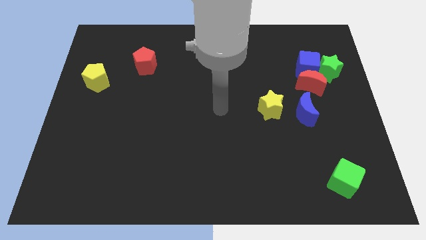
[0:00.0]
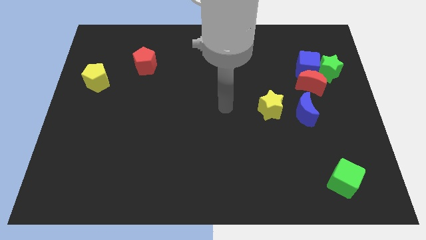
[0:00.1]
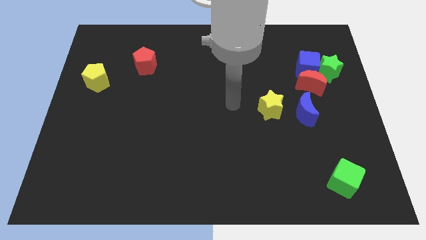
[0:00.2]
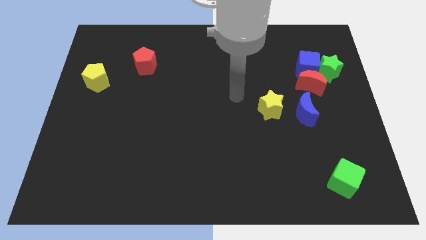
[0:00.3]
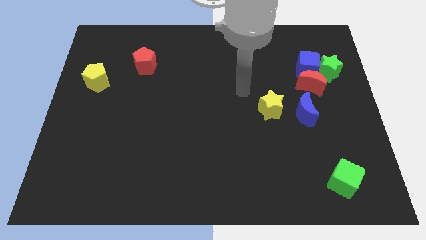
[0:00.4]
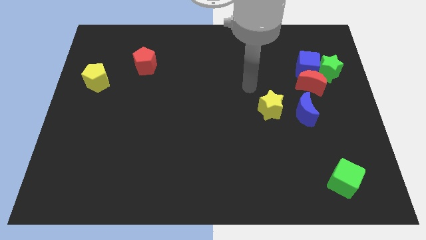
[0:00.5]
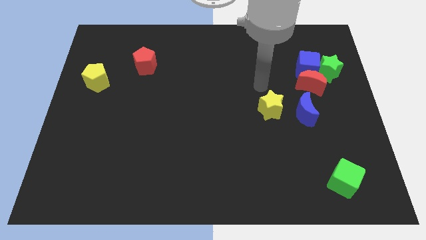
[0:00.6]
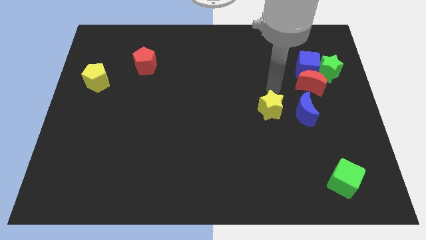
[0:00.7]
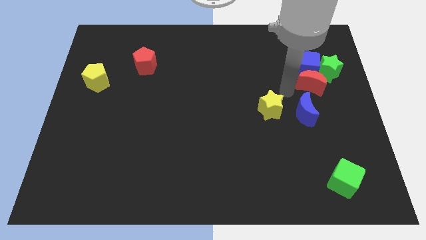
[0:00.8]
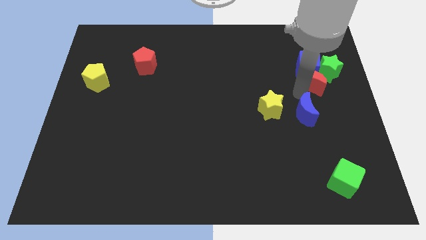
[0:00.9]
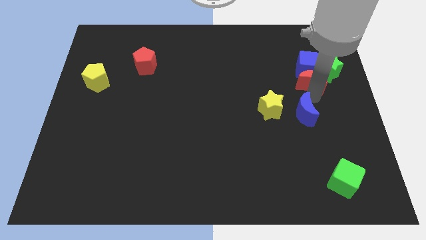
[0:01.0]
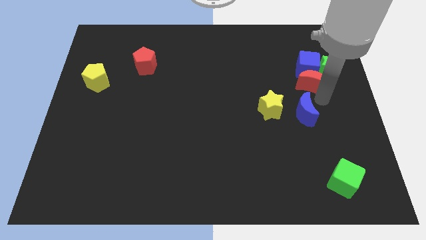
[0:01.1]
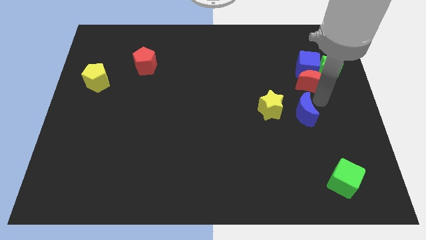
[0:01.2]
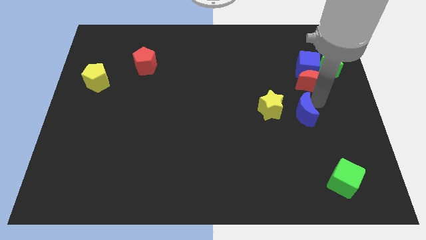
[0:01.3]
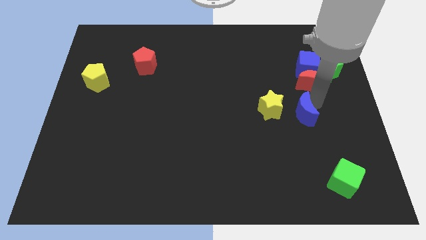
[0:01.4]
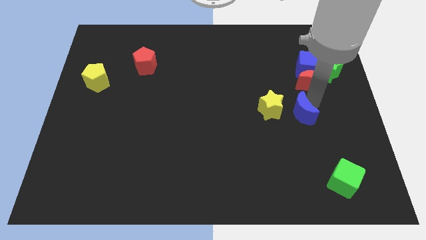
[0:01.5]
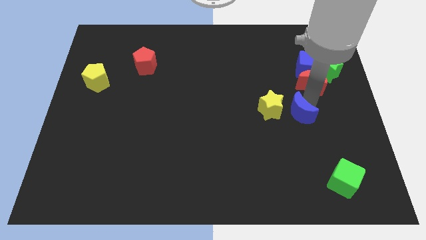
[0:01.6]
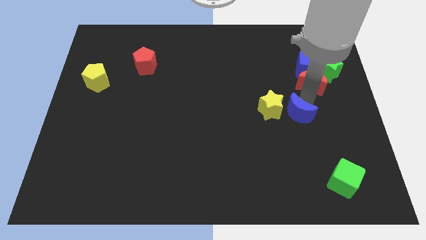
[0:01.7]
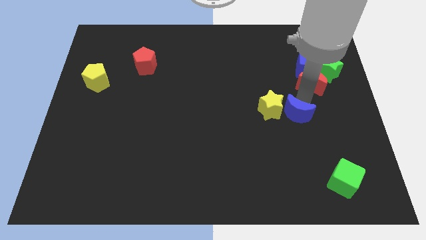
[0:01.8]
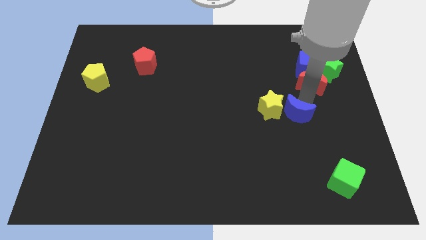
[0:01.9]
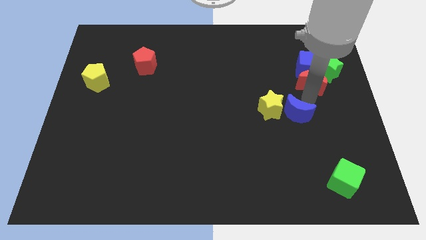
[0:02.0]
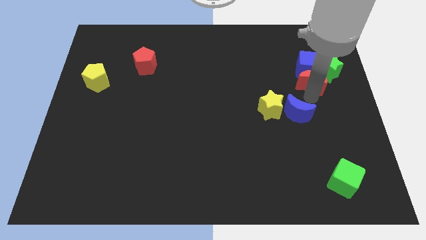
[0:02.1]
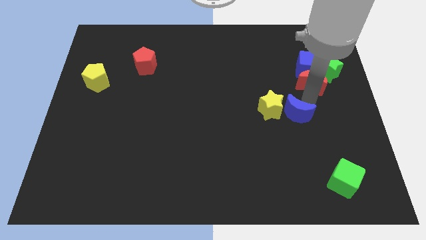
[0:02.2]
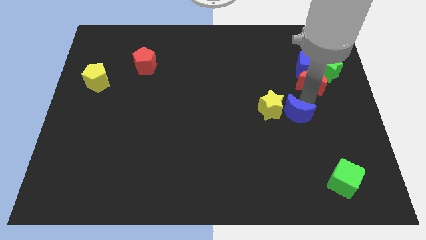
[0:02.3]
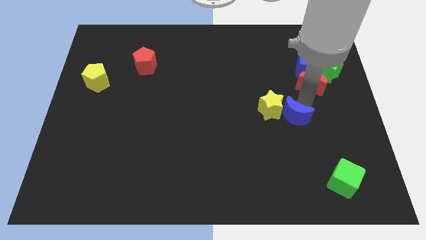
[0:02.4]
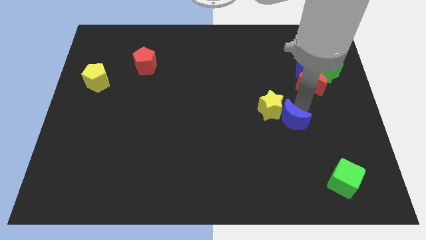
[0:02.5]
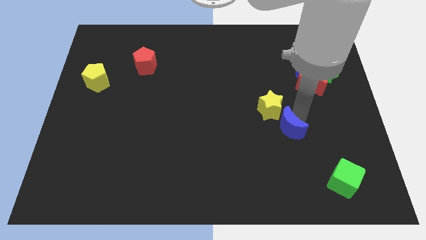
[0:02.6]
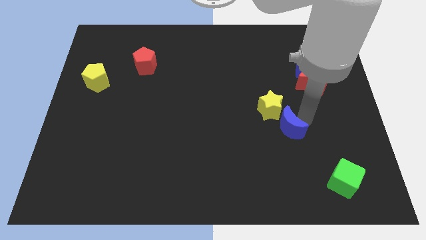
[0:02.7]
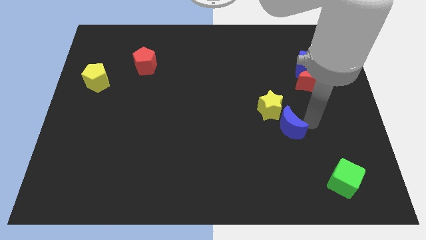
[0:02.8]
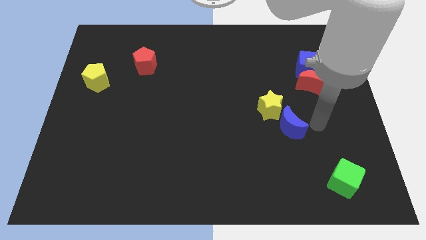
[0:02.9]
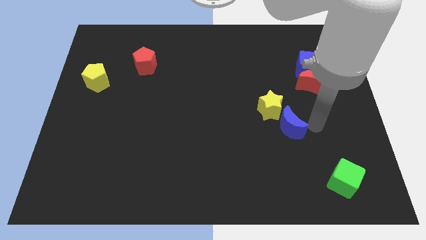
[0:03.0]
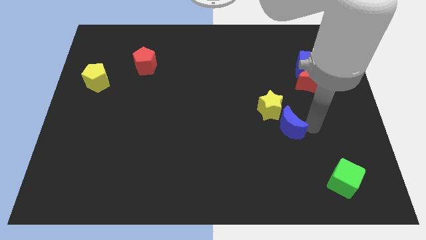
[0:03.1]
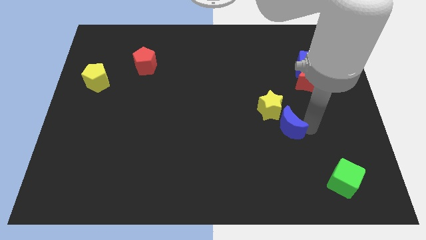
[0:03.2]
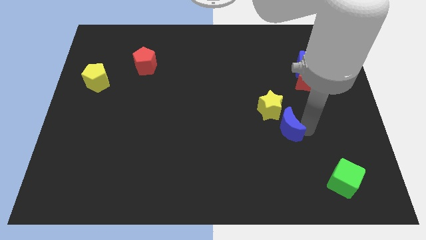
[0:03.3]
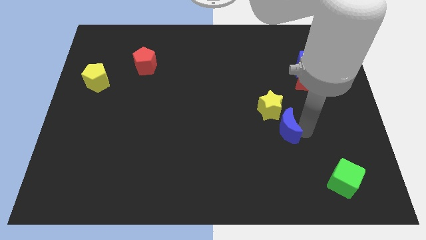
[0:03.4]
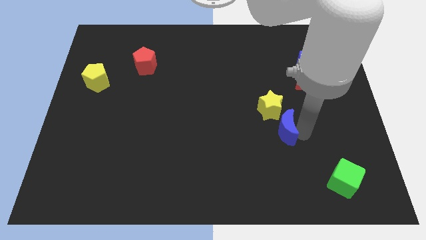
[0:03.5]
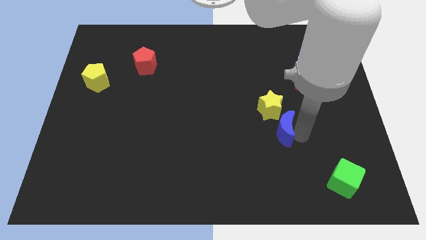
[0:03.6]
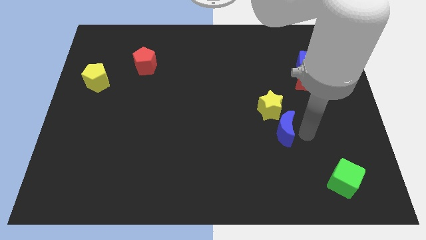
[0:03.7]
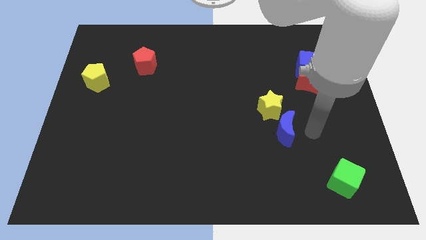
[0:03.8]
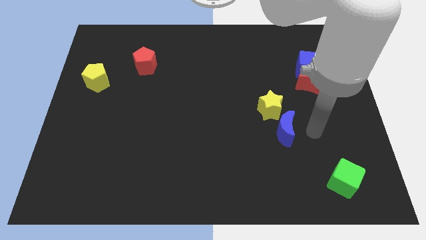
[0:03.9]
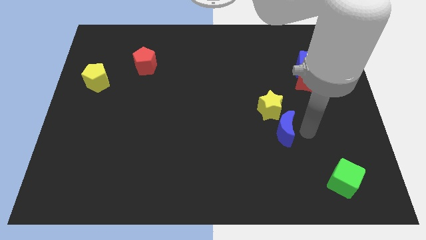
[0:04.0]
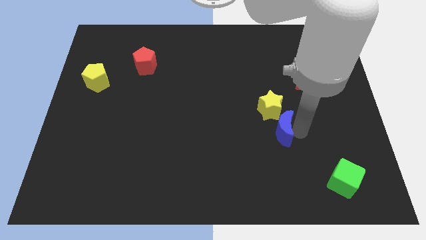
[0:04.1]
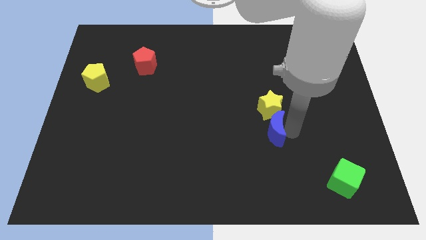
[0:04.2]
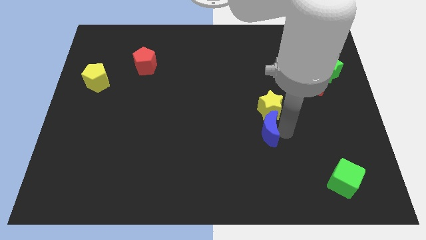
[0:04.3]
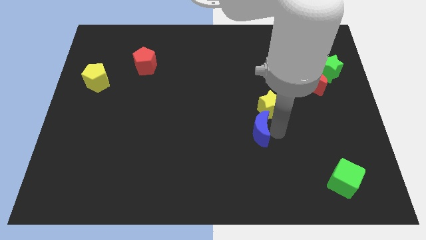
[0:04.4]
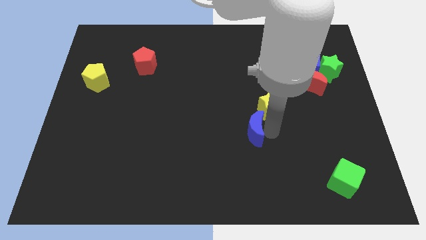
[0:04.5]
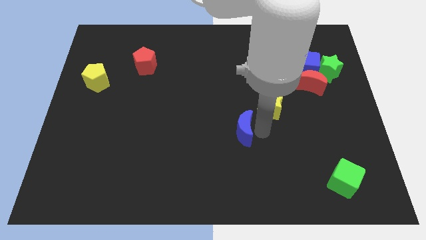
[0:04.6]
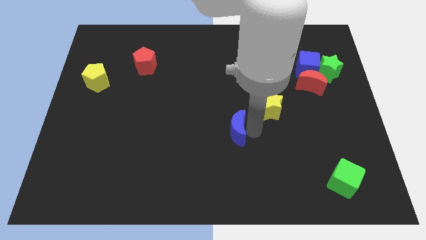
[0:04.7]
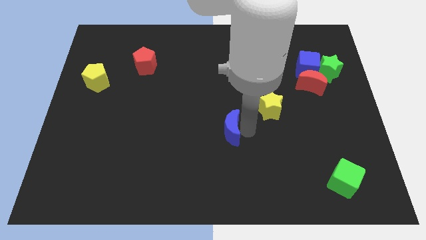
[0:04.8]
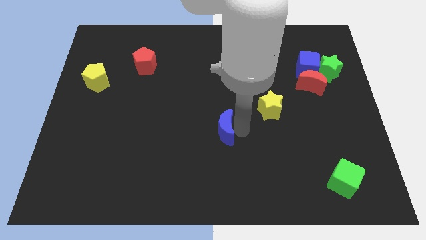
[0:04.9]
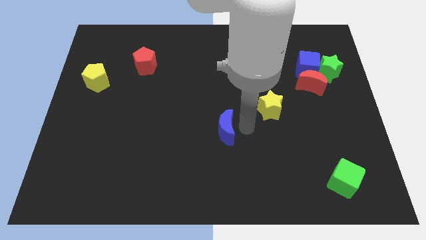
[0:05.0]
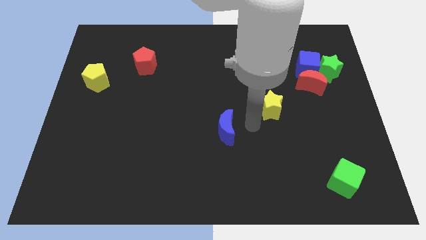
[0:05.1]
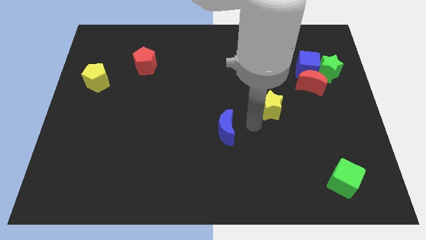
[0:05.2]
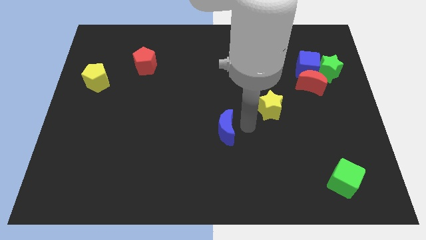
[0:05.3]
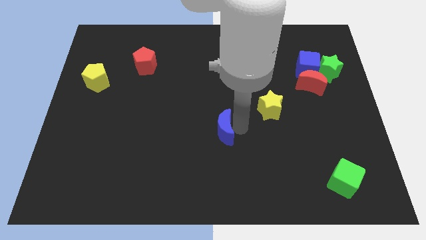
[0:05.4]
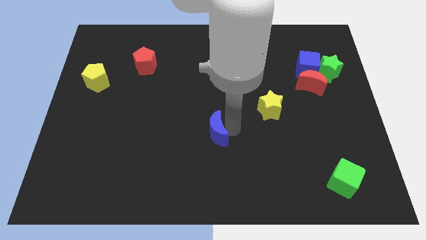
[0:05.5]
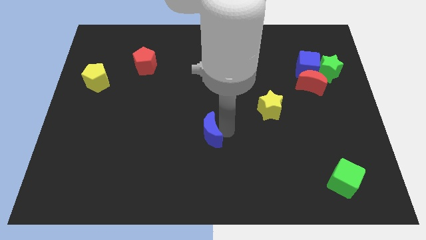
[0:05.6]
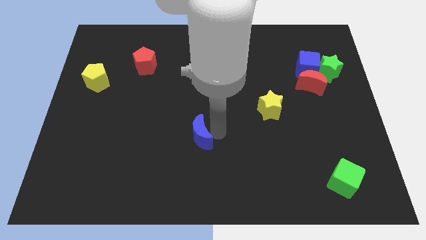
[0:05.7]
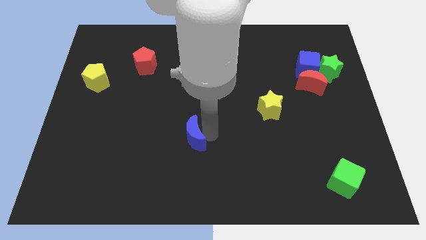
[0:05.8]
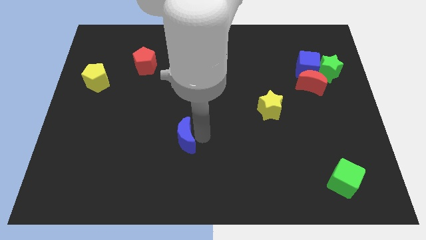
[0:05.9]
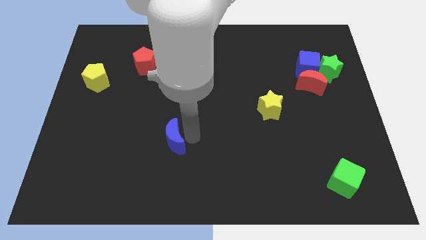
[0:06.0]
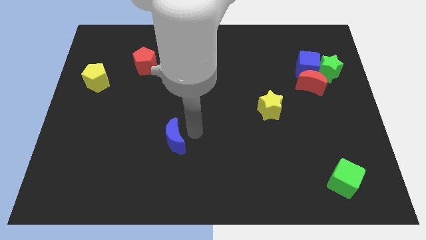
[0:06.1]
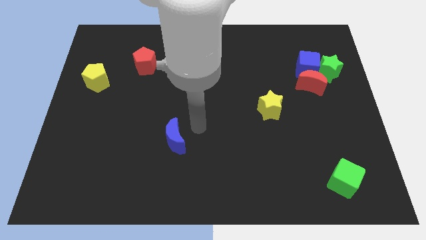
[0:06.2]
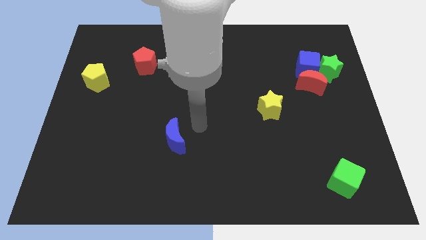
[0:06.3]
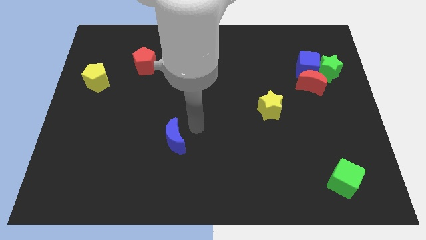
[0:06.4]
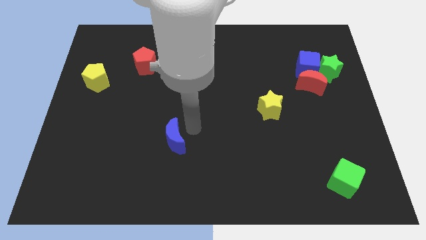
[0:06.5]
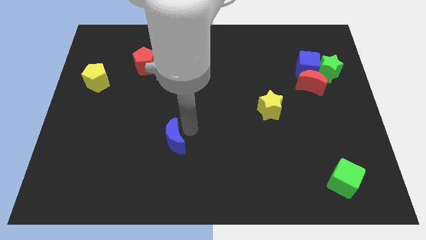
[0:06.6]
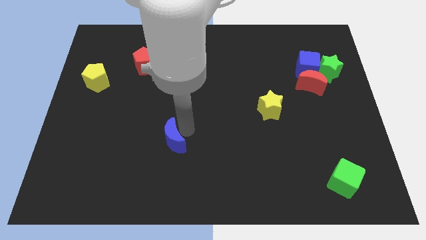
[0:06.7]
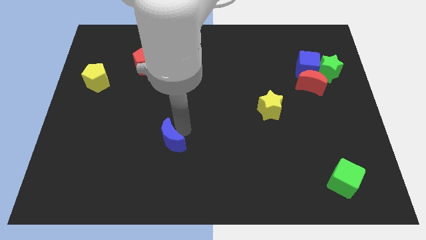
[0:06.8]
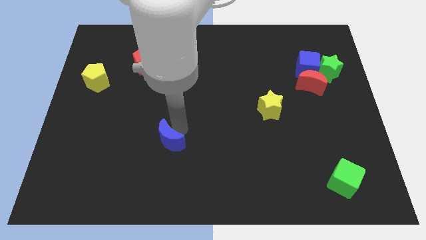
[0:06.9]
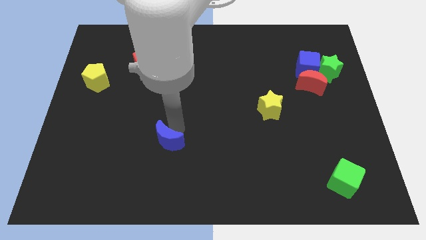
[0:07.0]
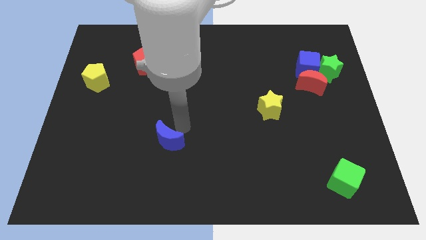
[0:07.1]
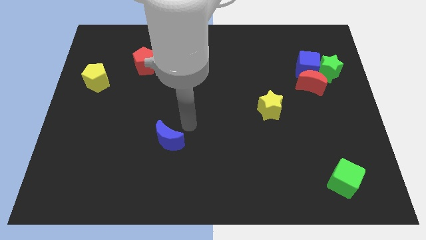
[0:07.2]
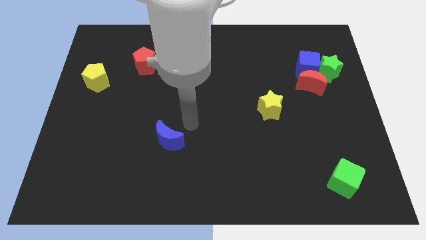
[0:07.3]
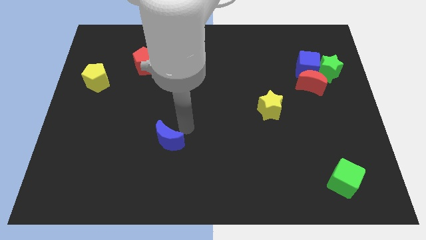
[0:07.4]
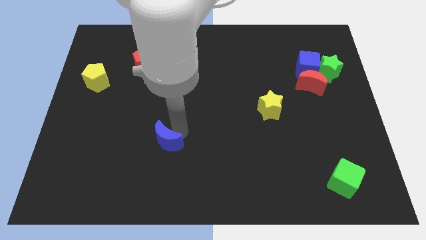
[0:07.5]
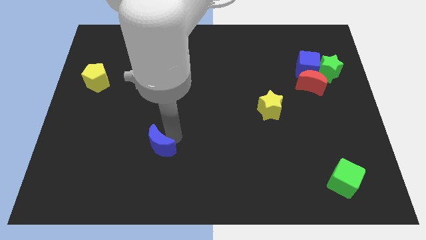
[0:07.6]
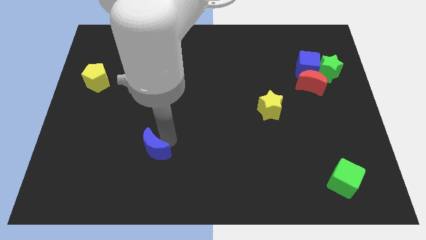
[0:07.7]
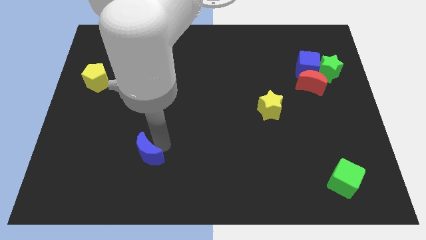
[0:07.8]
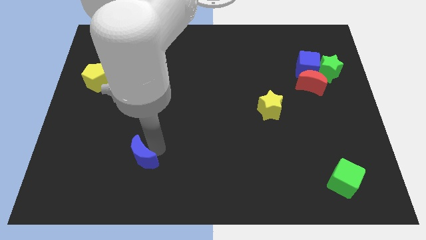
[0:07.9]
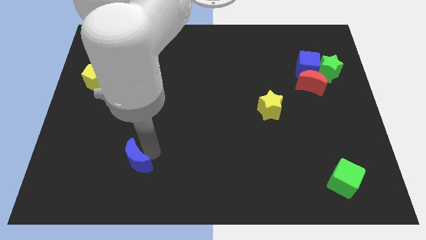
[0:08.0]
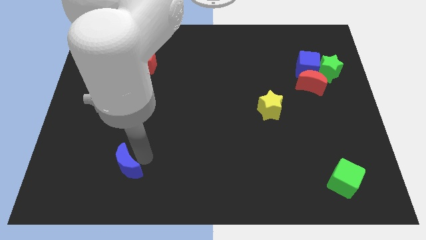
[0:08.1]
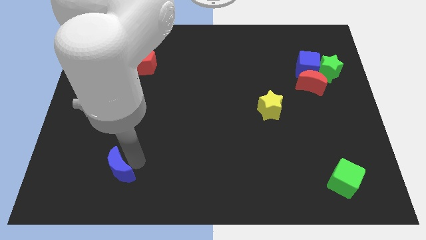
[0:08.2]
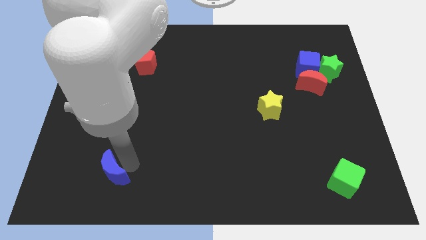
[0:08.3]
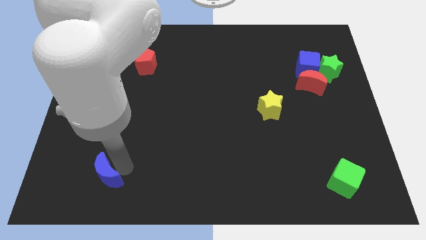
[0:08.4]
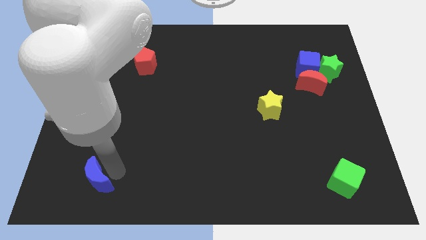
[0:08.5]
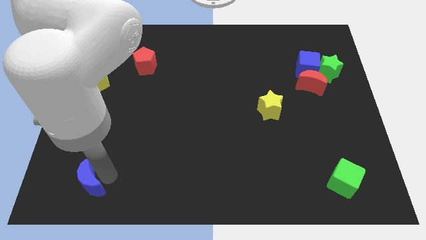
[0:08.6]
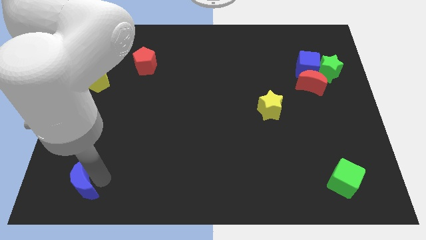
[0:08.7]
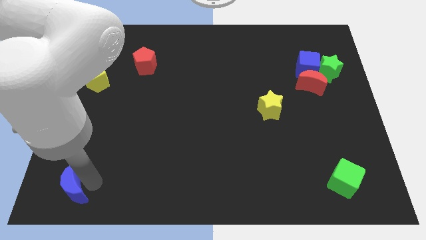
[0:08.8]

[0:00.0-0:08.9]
put the blue moon to the lower left corner
